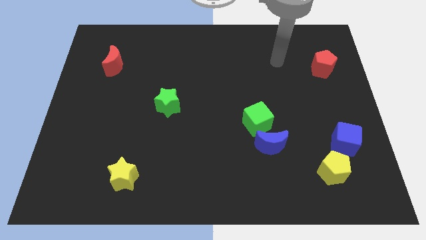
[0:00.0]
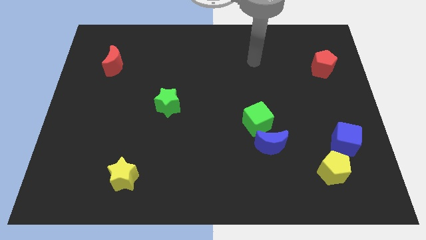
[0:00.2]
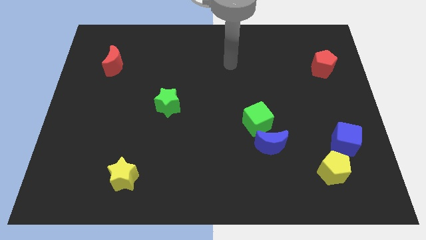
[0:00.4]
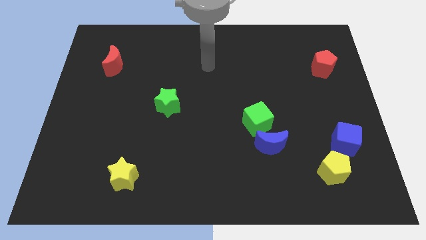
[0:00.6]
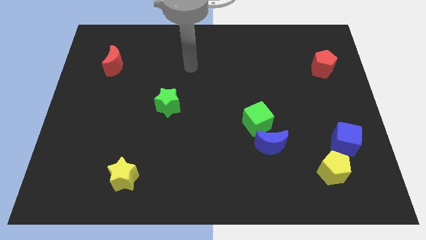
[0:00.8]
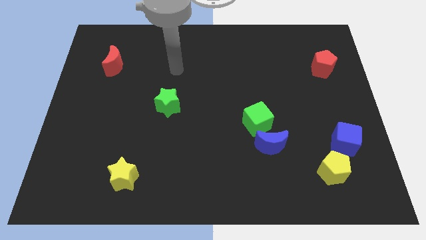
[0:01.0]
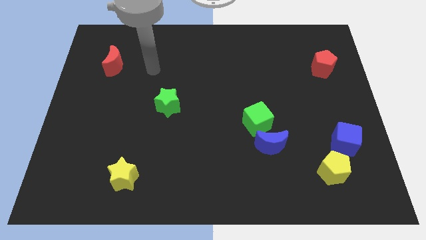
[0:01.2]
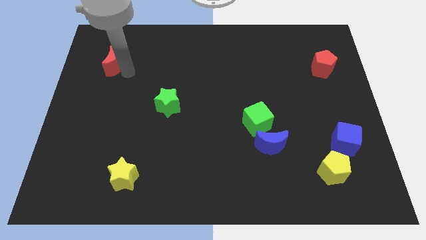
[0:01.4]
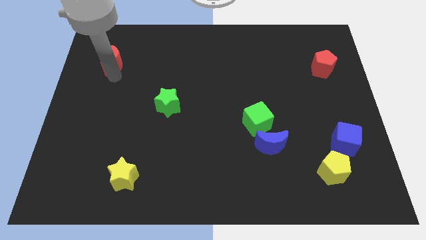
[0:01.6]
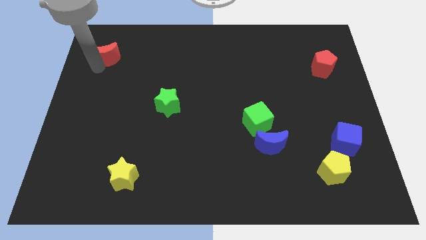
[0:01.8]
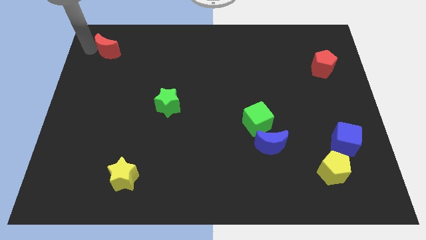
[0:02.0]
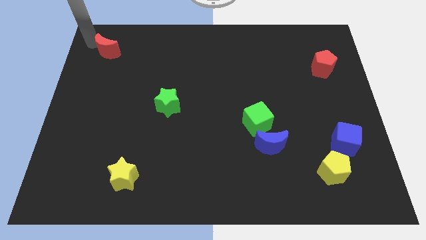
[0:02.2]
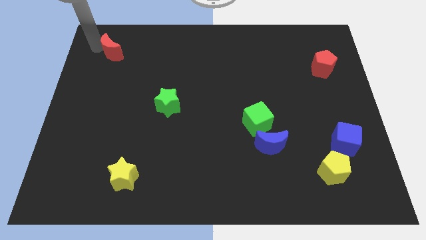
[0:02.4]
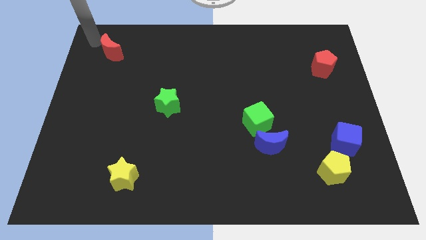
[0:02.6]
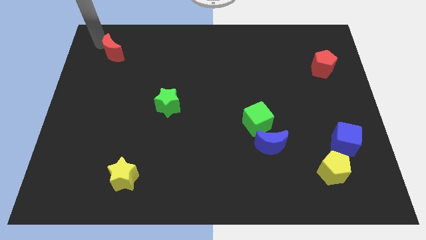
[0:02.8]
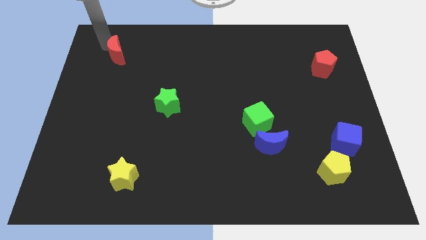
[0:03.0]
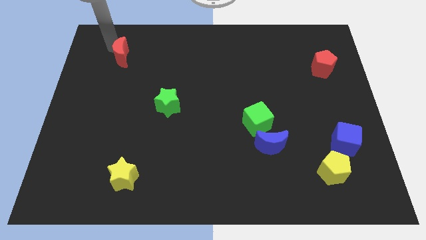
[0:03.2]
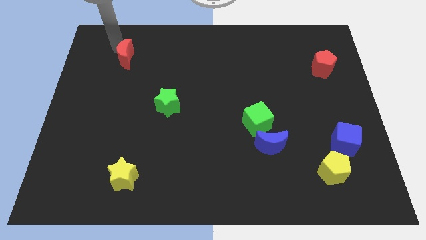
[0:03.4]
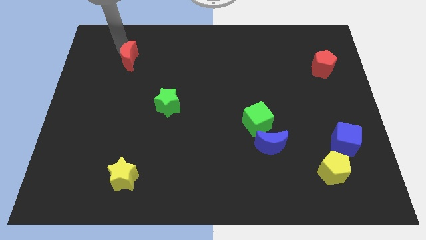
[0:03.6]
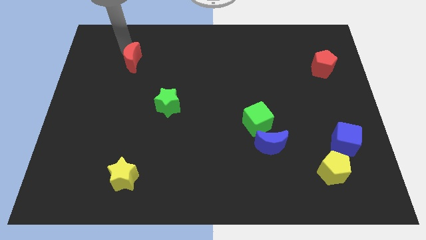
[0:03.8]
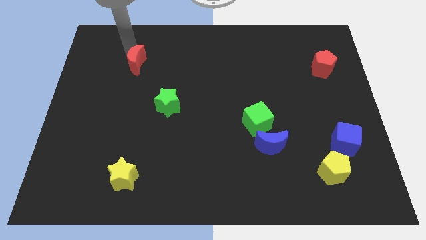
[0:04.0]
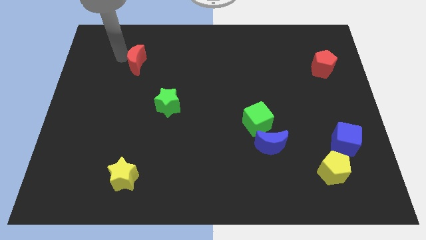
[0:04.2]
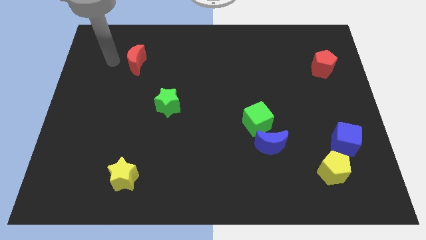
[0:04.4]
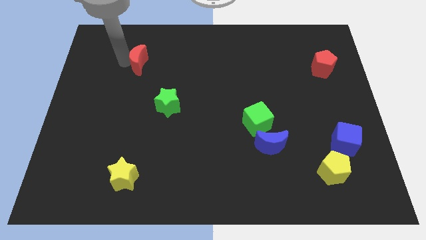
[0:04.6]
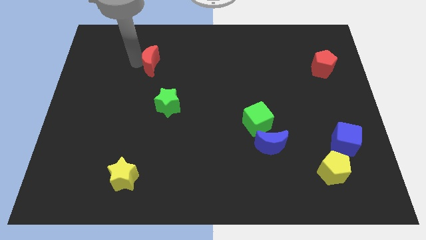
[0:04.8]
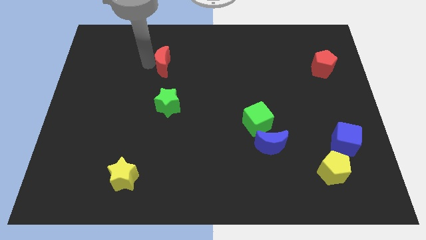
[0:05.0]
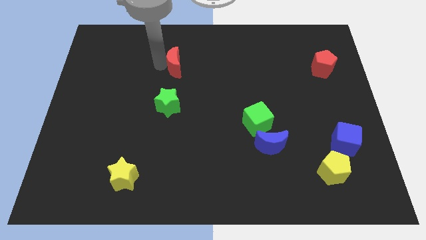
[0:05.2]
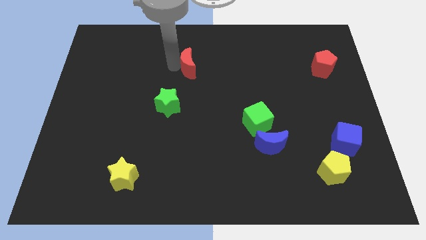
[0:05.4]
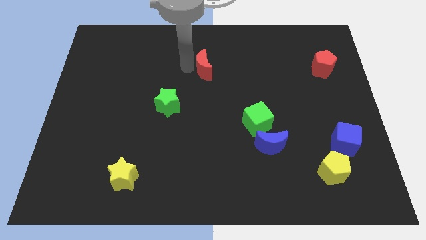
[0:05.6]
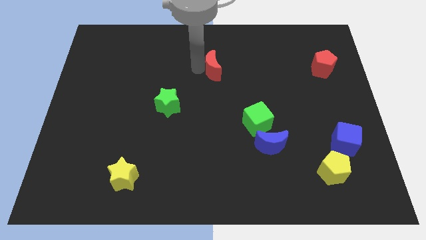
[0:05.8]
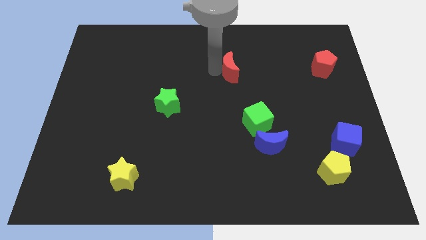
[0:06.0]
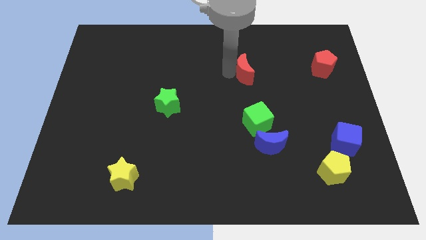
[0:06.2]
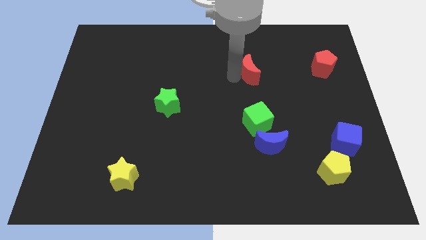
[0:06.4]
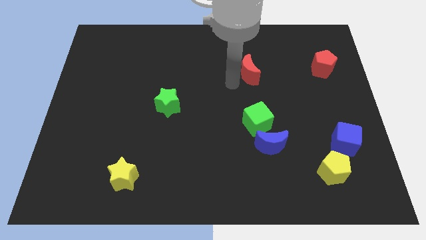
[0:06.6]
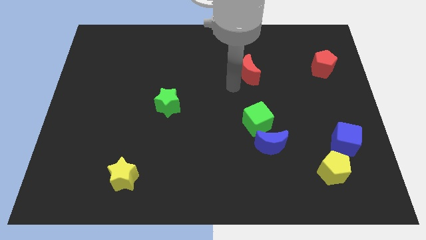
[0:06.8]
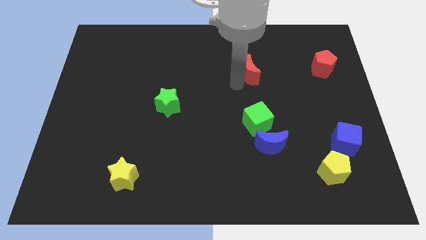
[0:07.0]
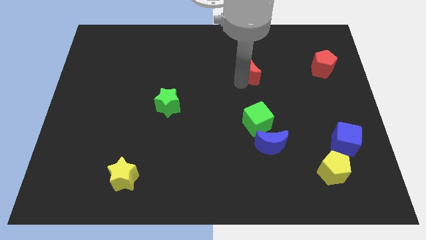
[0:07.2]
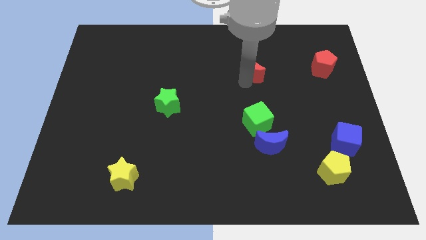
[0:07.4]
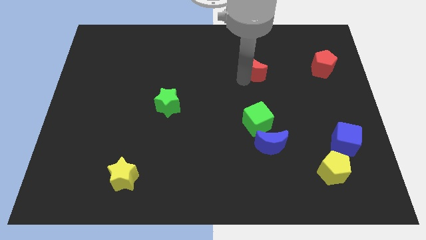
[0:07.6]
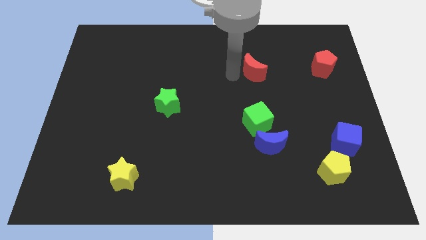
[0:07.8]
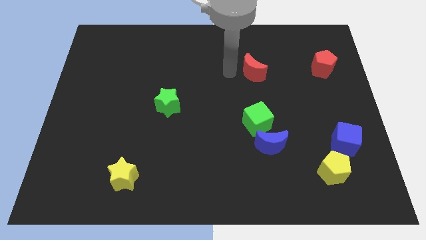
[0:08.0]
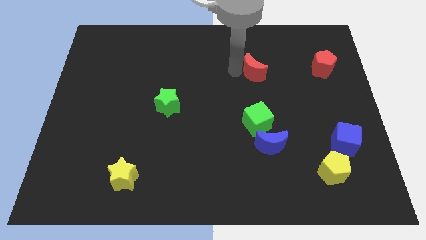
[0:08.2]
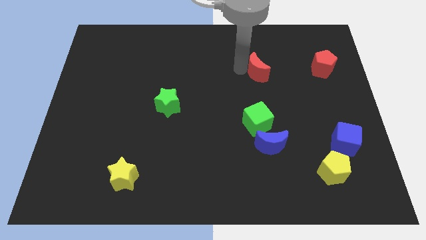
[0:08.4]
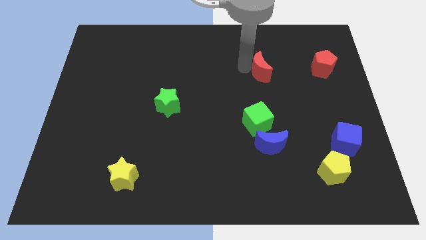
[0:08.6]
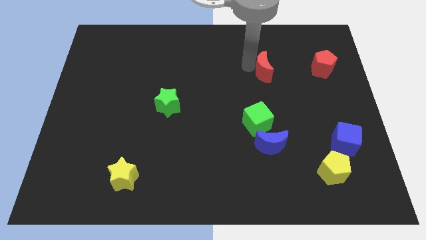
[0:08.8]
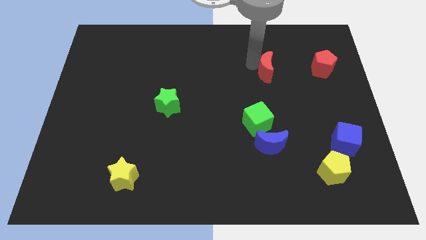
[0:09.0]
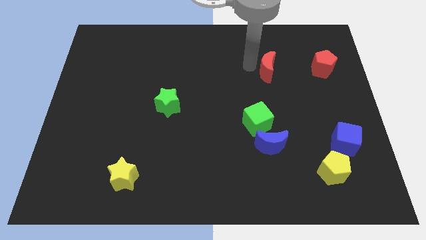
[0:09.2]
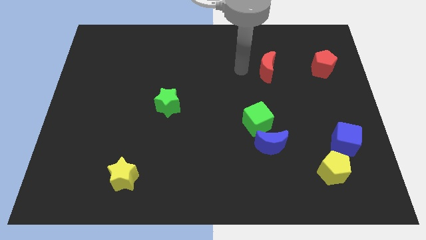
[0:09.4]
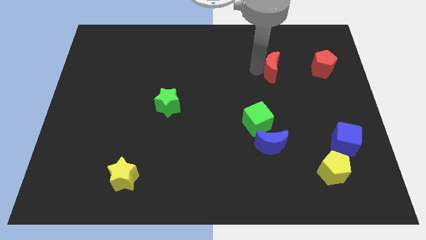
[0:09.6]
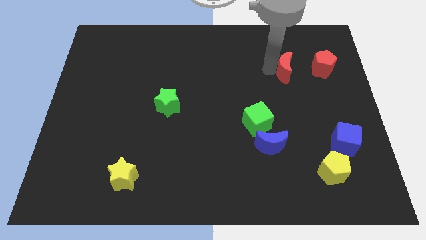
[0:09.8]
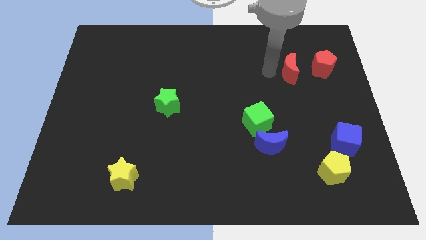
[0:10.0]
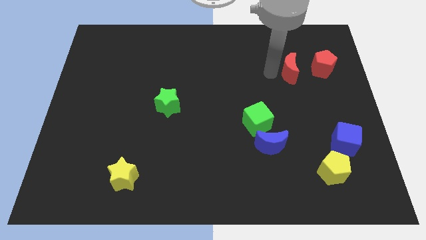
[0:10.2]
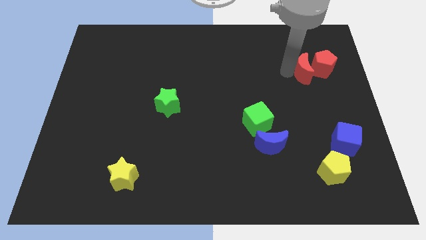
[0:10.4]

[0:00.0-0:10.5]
push the red moon close to the red pentagon

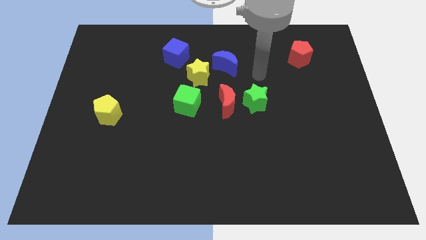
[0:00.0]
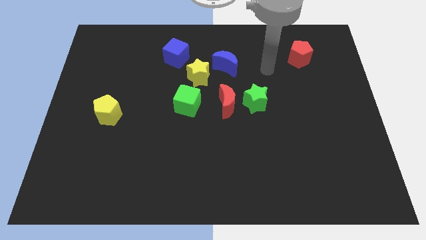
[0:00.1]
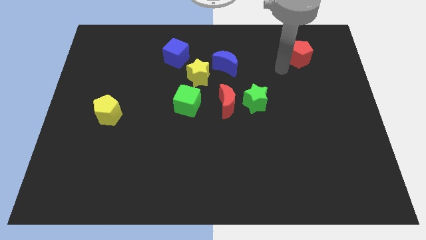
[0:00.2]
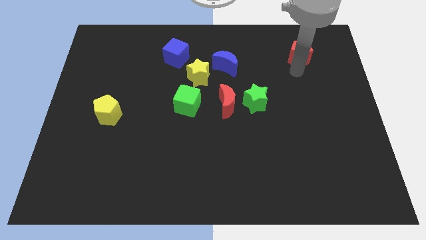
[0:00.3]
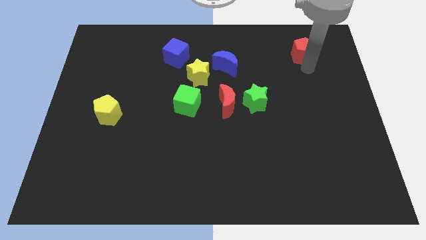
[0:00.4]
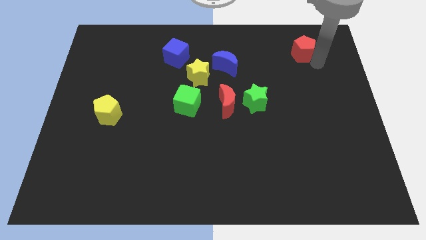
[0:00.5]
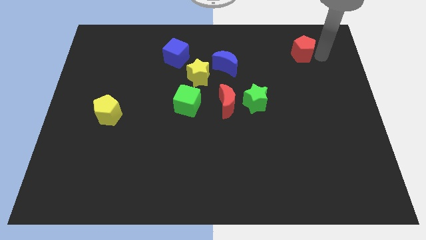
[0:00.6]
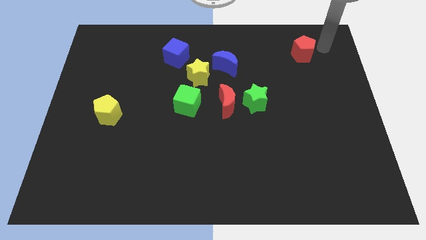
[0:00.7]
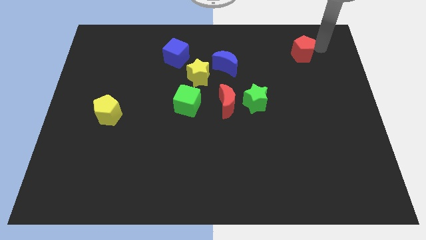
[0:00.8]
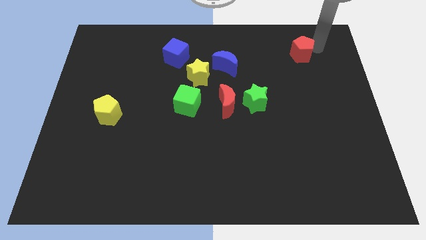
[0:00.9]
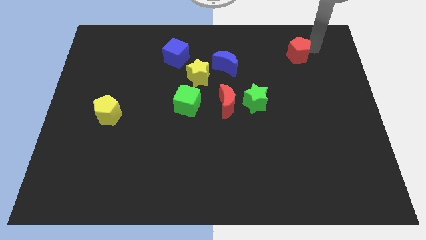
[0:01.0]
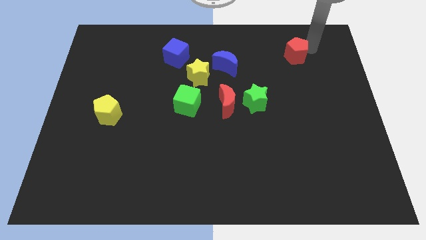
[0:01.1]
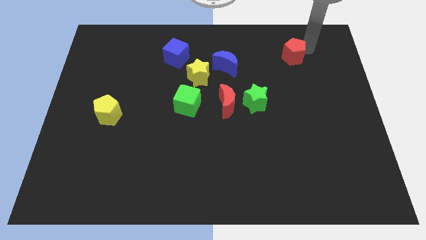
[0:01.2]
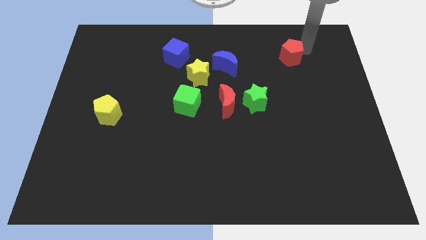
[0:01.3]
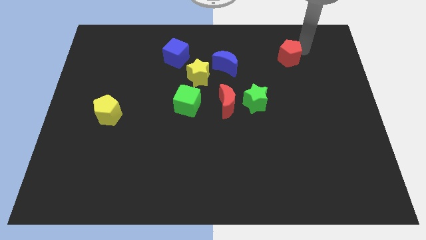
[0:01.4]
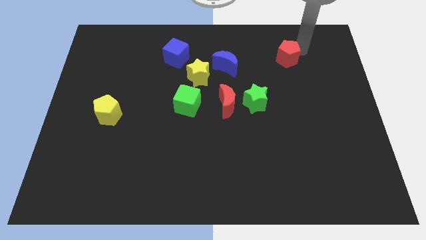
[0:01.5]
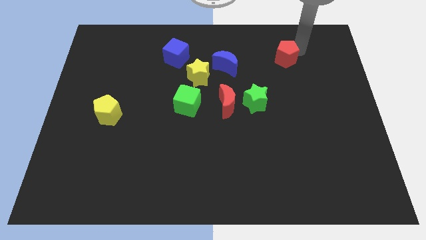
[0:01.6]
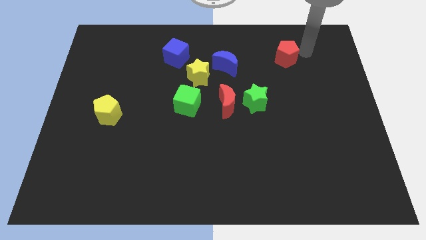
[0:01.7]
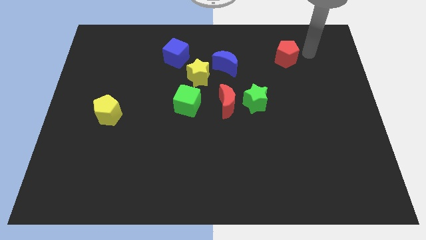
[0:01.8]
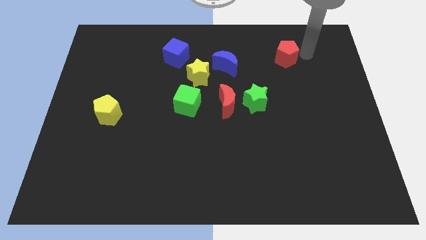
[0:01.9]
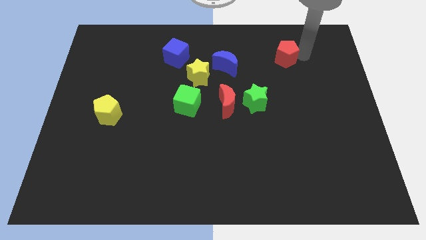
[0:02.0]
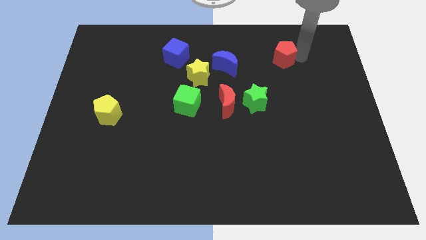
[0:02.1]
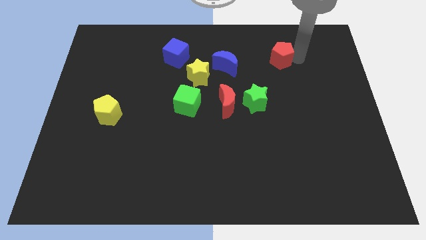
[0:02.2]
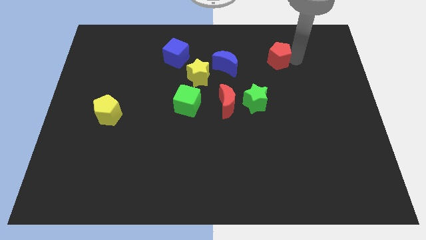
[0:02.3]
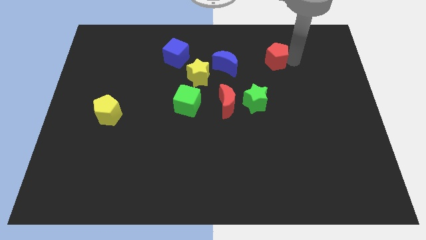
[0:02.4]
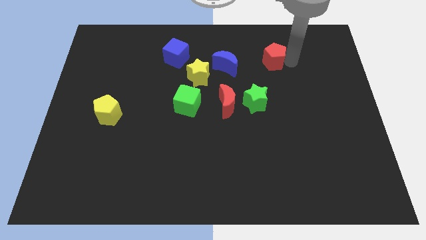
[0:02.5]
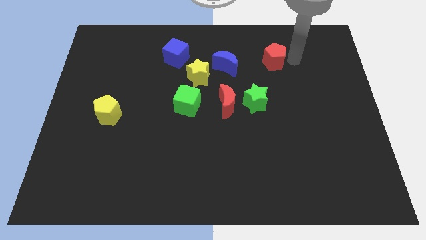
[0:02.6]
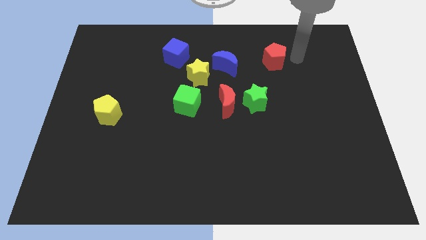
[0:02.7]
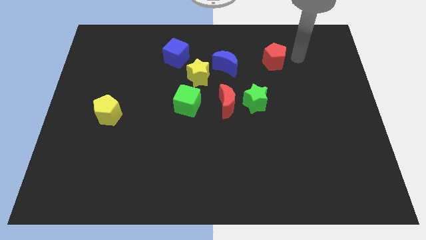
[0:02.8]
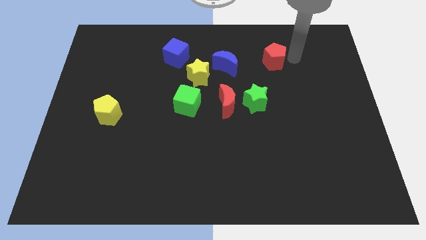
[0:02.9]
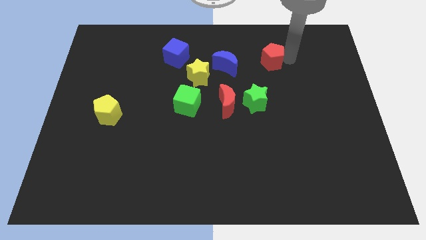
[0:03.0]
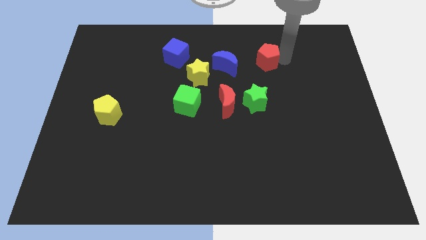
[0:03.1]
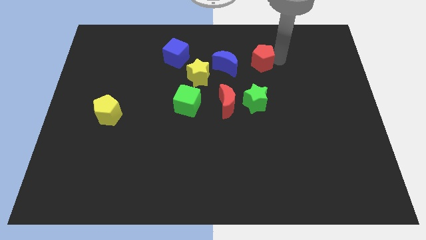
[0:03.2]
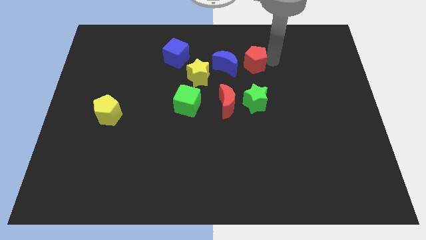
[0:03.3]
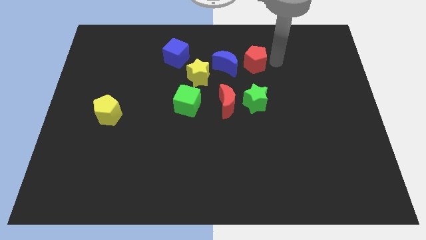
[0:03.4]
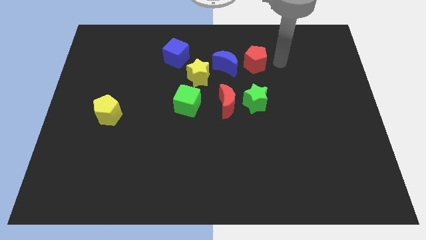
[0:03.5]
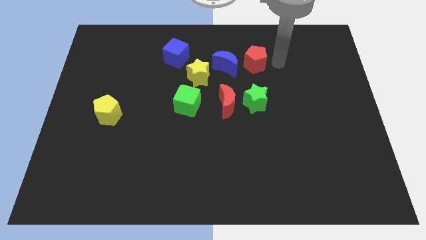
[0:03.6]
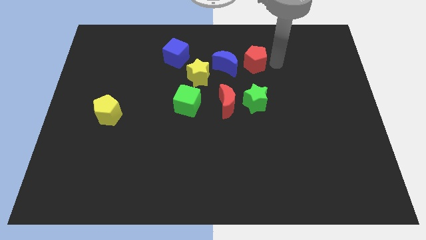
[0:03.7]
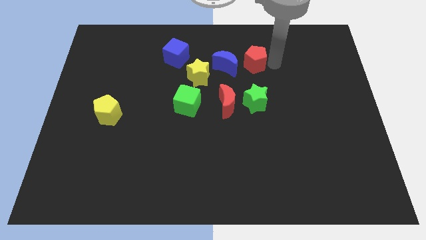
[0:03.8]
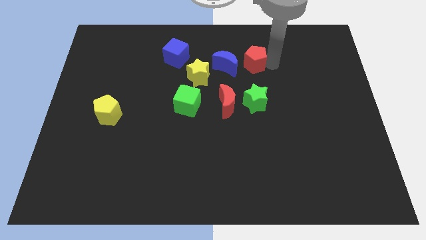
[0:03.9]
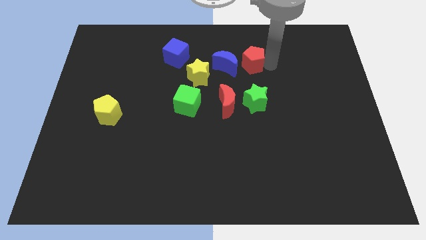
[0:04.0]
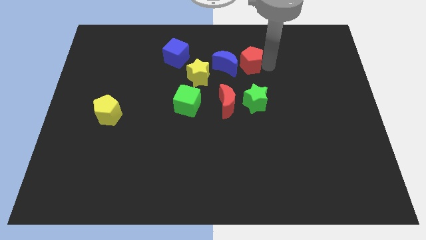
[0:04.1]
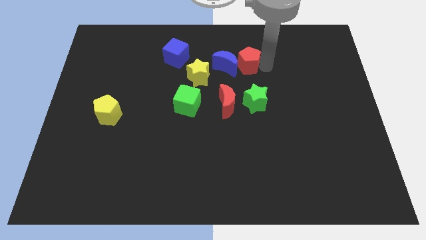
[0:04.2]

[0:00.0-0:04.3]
move the red pentagon close to the blue moon
